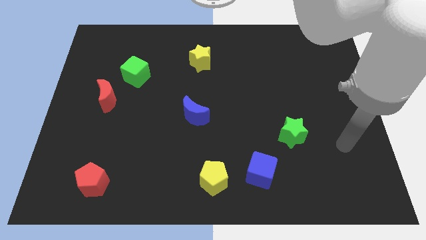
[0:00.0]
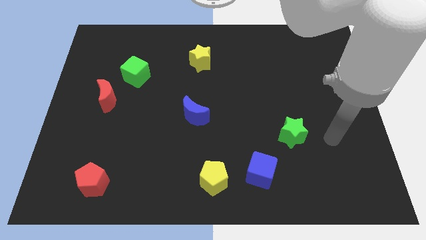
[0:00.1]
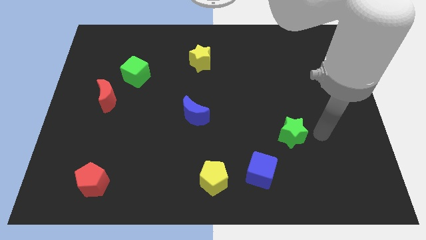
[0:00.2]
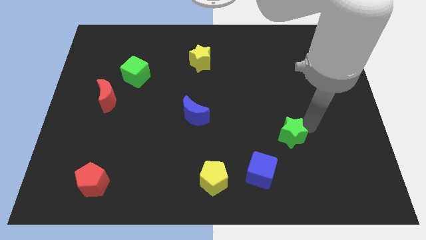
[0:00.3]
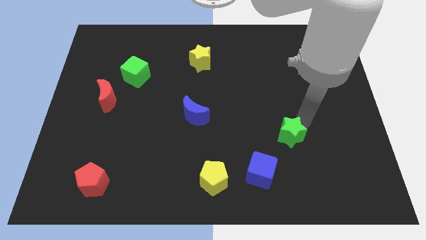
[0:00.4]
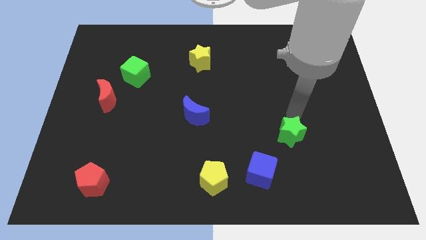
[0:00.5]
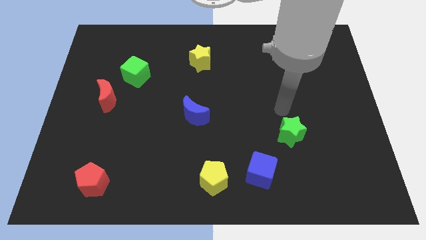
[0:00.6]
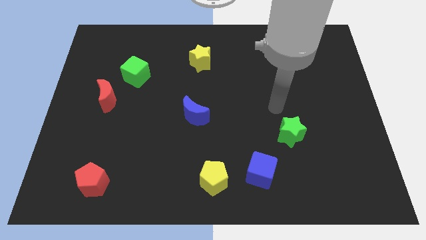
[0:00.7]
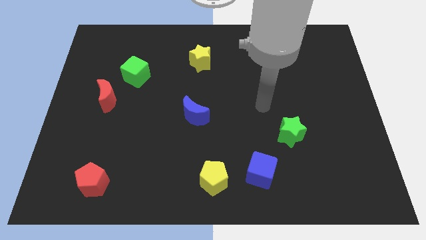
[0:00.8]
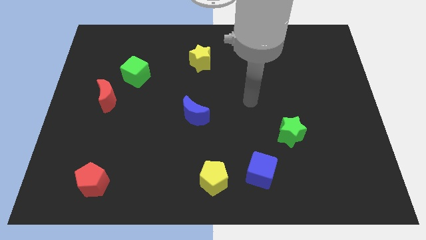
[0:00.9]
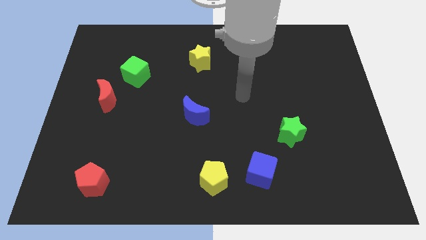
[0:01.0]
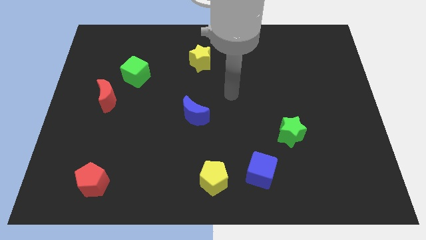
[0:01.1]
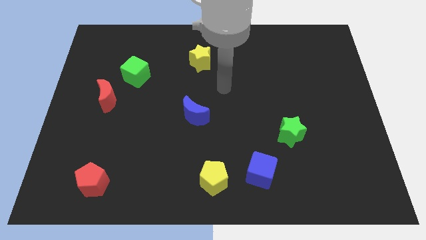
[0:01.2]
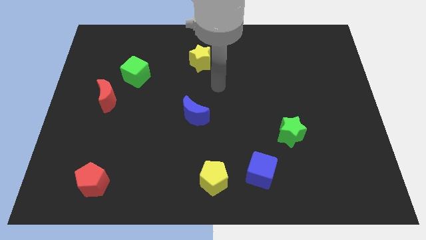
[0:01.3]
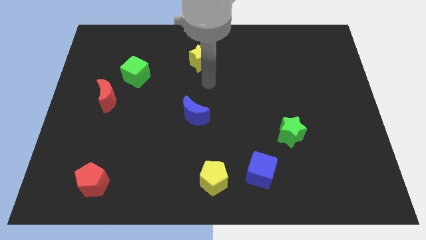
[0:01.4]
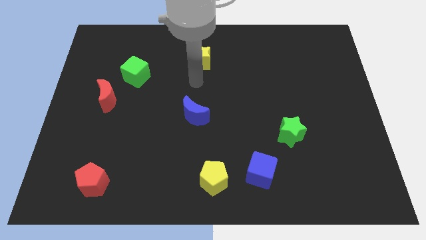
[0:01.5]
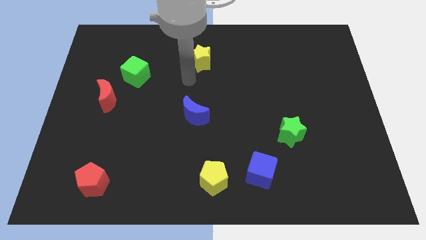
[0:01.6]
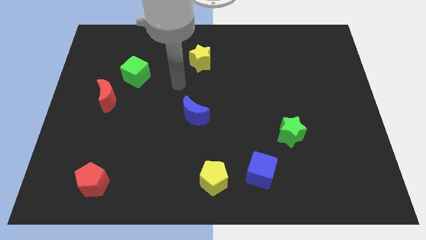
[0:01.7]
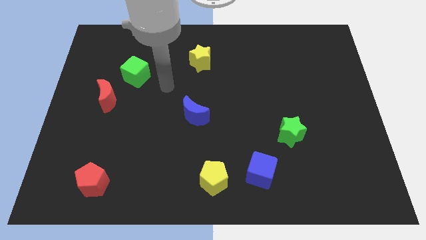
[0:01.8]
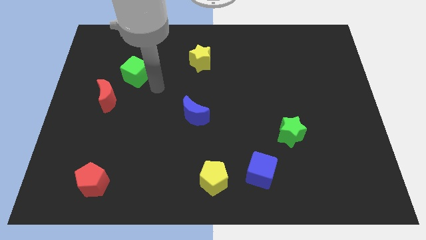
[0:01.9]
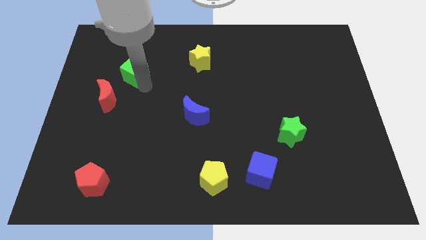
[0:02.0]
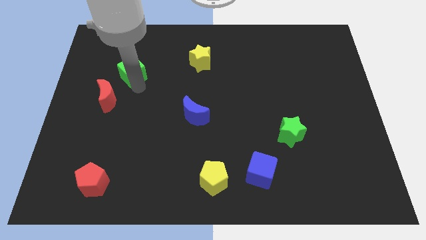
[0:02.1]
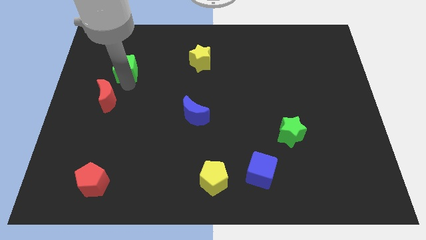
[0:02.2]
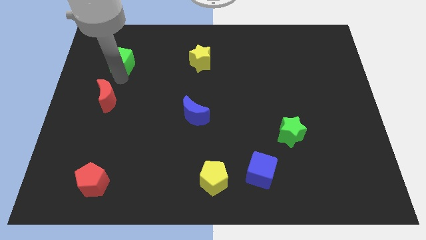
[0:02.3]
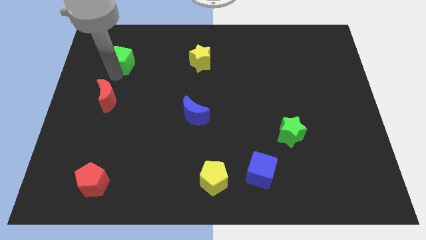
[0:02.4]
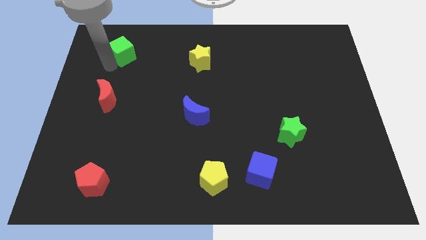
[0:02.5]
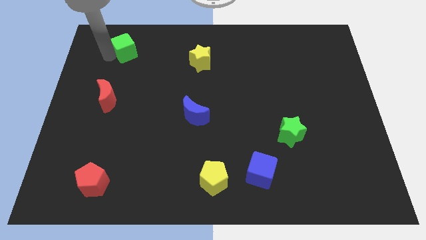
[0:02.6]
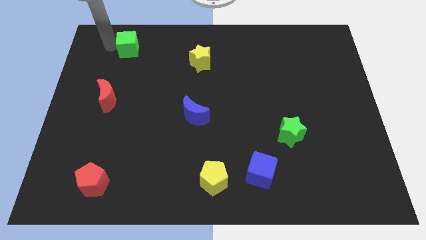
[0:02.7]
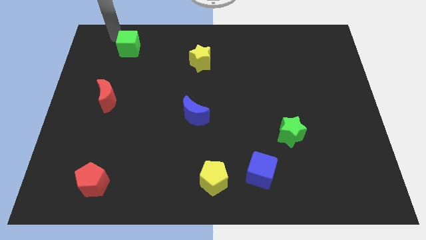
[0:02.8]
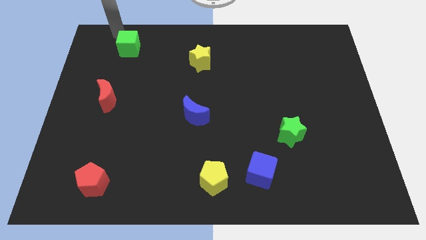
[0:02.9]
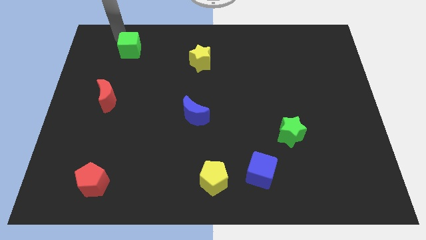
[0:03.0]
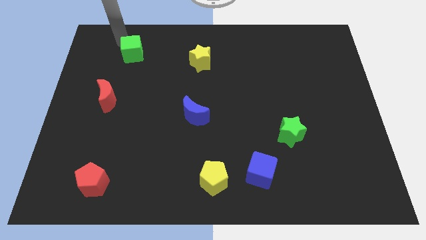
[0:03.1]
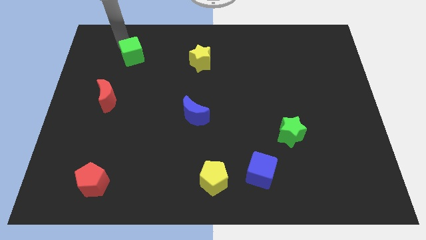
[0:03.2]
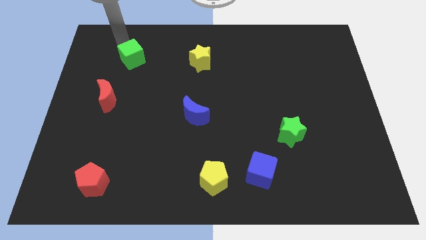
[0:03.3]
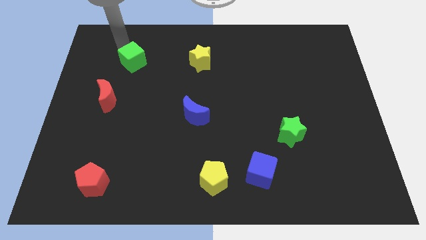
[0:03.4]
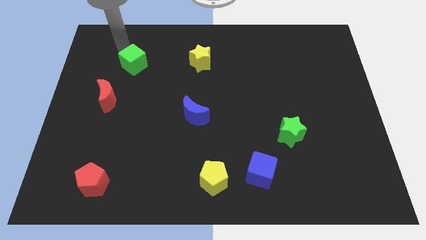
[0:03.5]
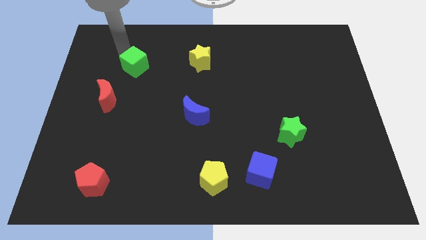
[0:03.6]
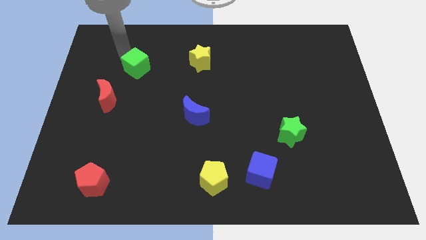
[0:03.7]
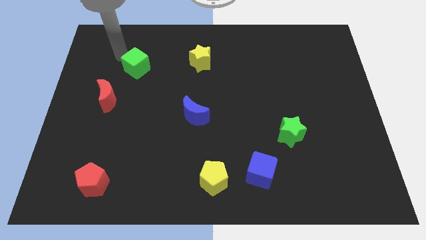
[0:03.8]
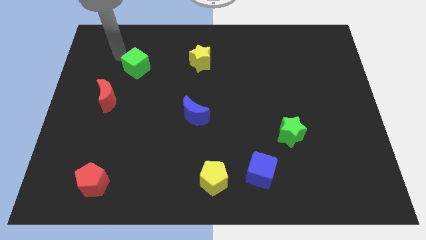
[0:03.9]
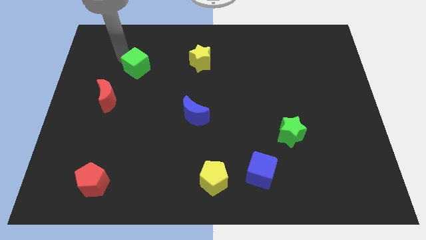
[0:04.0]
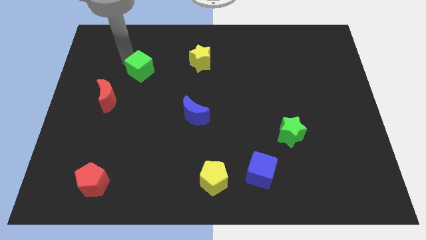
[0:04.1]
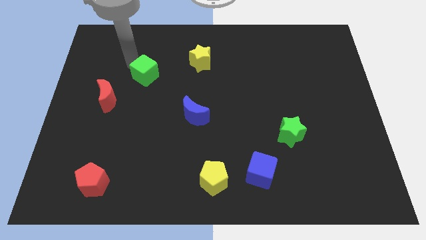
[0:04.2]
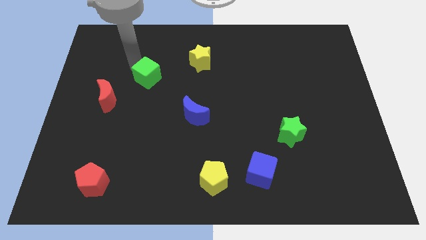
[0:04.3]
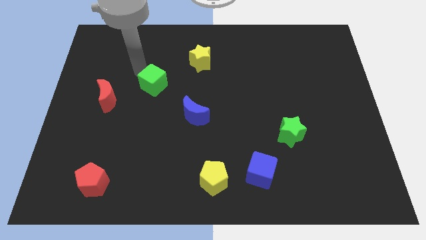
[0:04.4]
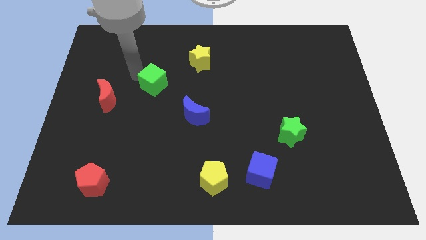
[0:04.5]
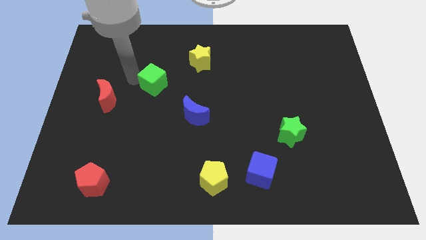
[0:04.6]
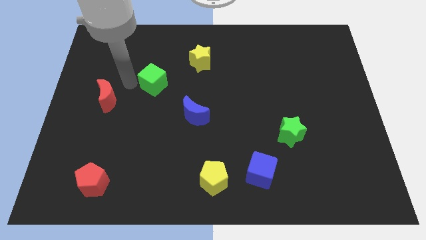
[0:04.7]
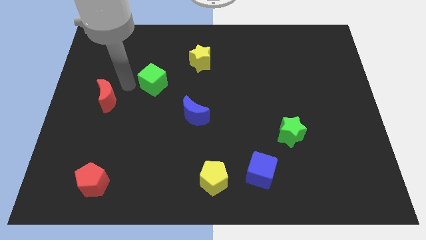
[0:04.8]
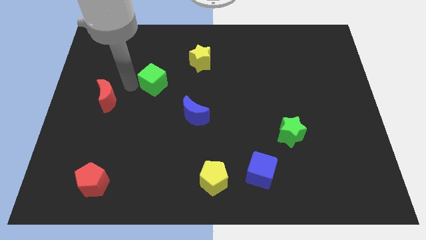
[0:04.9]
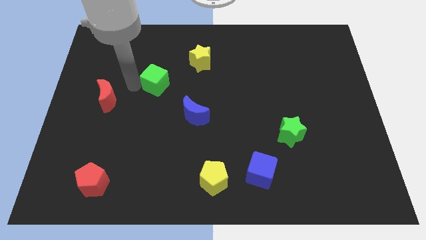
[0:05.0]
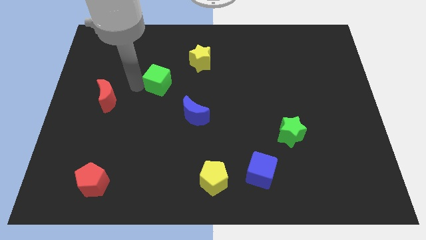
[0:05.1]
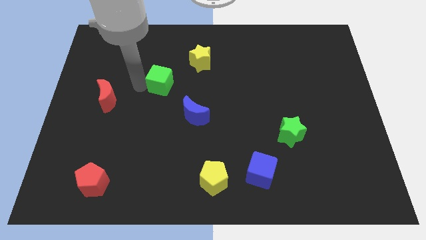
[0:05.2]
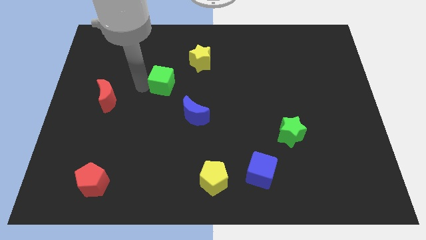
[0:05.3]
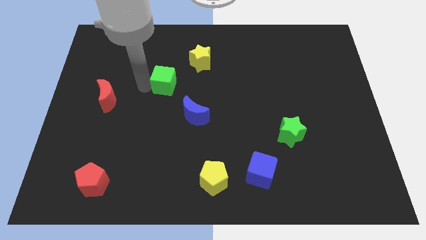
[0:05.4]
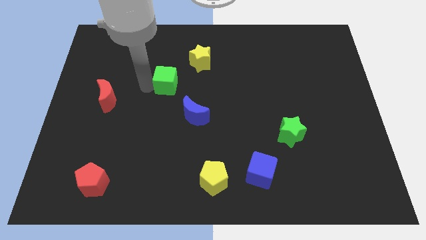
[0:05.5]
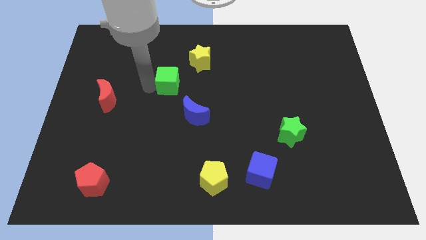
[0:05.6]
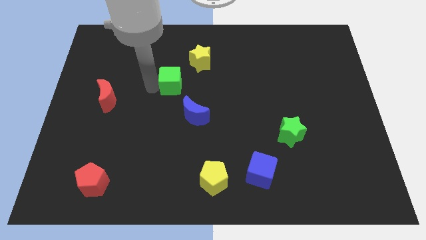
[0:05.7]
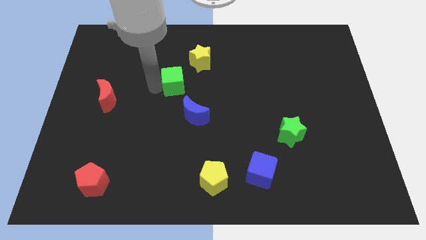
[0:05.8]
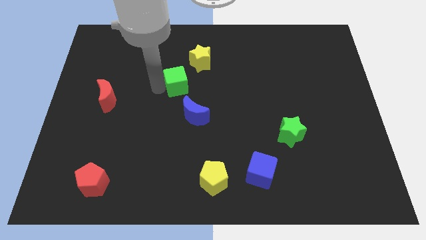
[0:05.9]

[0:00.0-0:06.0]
slide the green cube above the blue moon

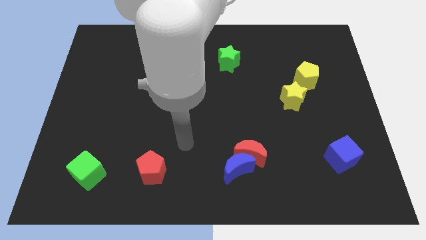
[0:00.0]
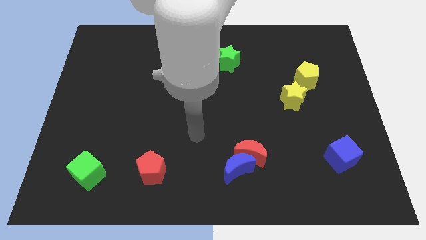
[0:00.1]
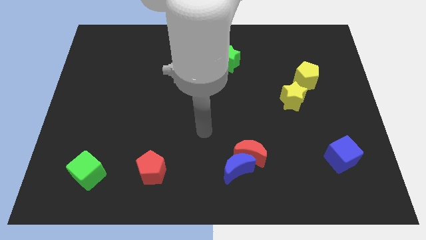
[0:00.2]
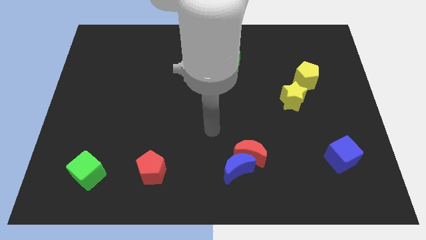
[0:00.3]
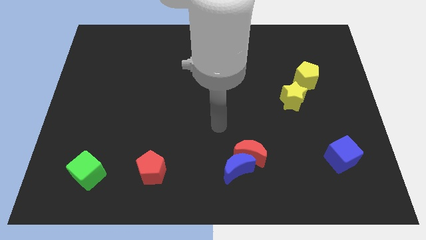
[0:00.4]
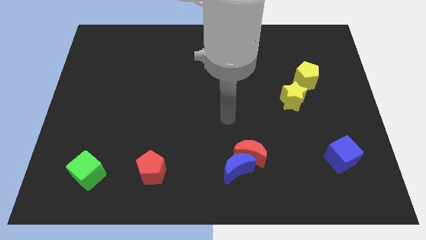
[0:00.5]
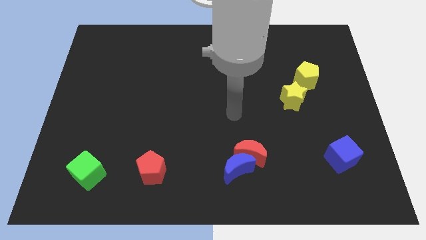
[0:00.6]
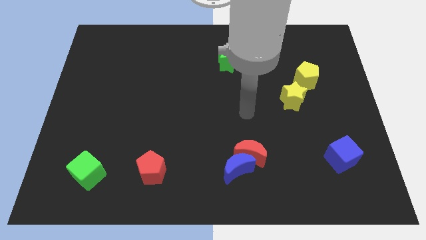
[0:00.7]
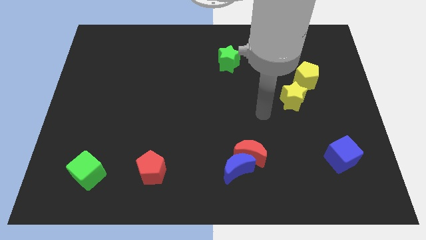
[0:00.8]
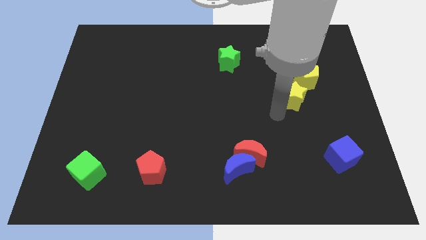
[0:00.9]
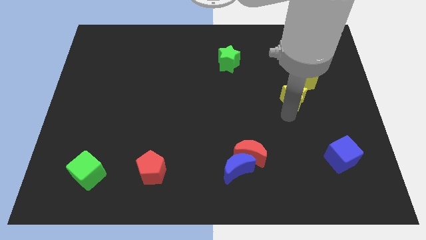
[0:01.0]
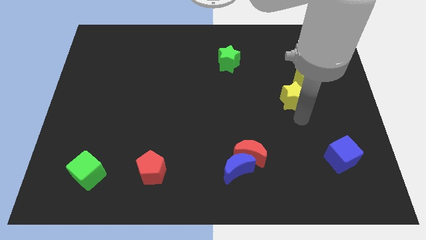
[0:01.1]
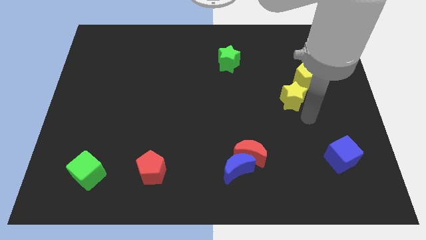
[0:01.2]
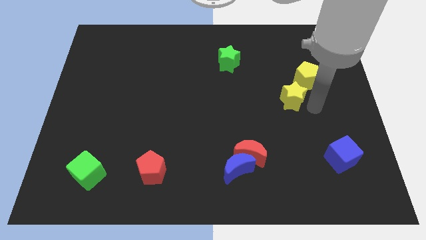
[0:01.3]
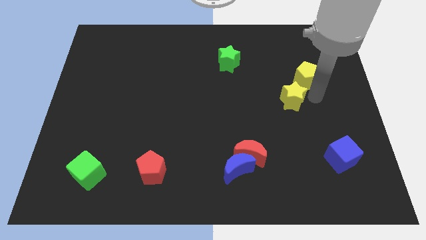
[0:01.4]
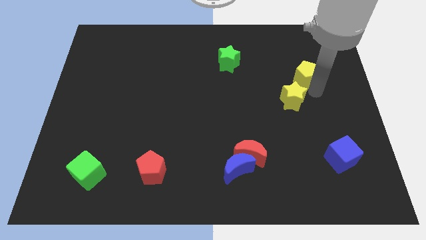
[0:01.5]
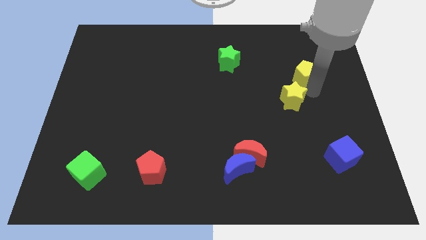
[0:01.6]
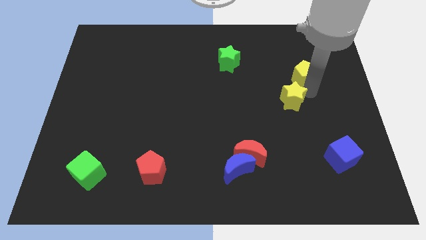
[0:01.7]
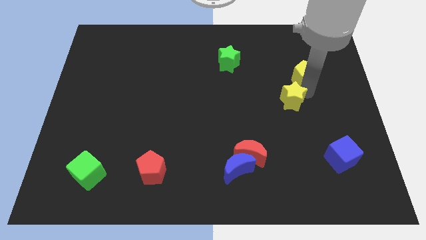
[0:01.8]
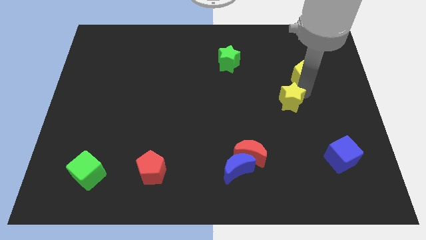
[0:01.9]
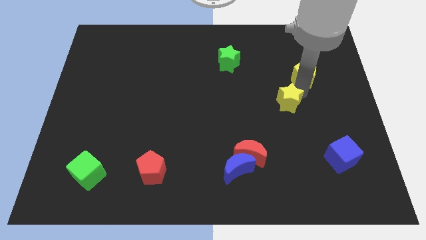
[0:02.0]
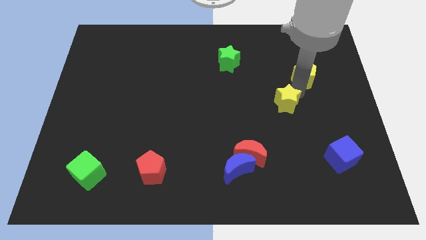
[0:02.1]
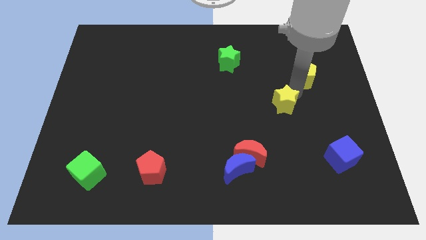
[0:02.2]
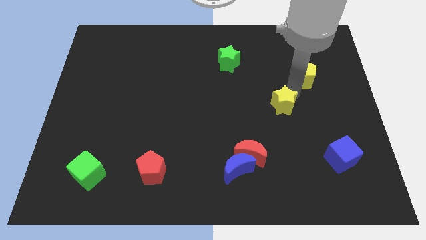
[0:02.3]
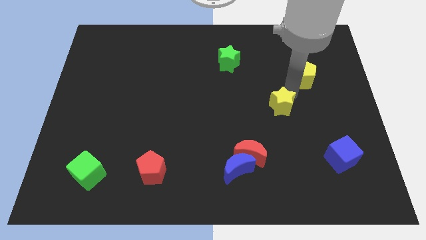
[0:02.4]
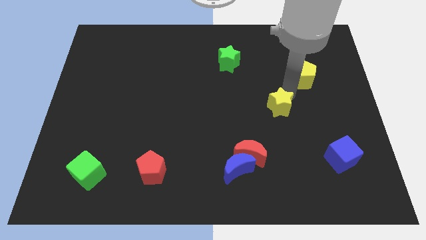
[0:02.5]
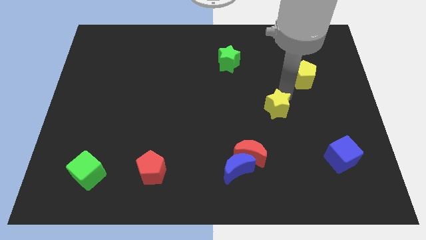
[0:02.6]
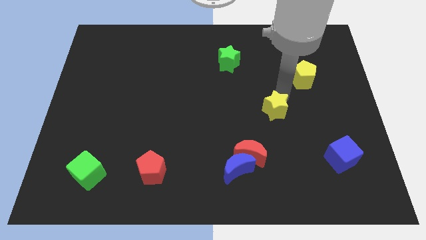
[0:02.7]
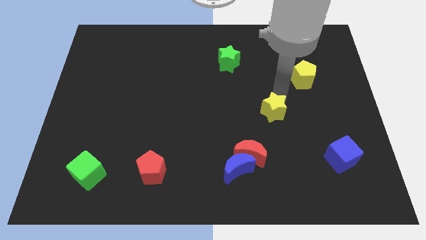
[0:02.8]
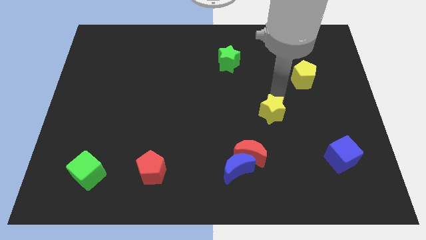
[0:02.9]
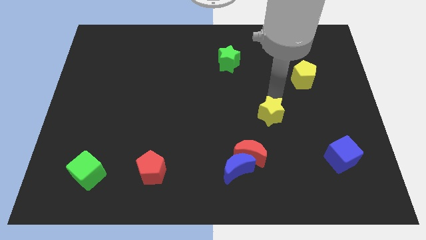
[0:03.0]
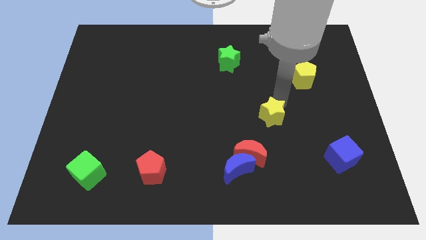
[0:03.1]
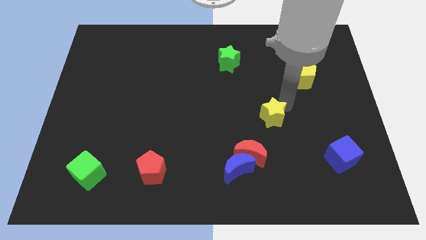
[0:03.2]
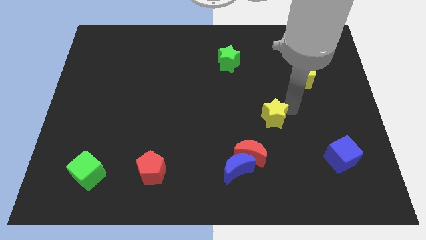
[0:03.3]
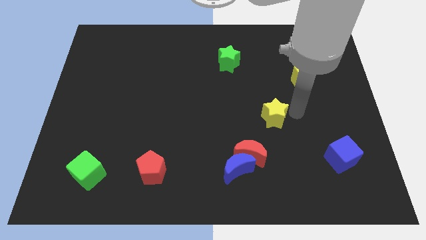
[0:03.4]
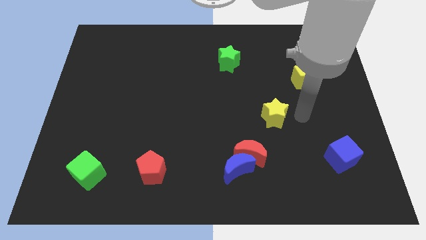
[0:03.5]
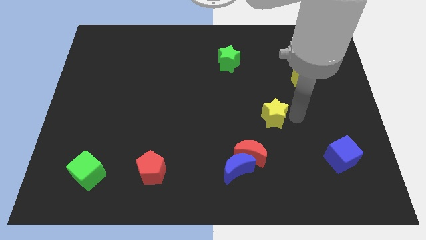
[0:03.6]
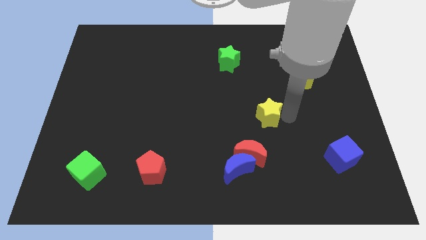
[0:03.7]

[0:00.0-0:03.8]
move the yellow star to the top of the red moon
